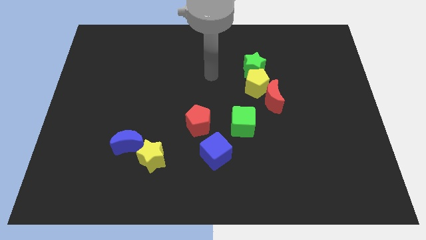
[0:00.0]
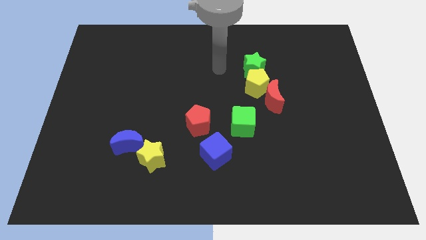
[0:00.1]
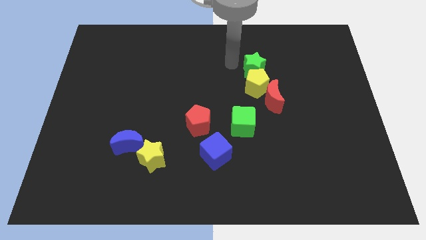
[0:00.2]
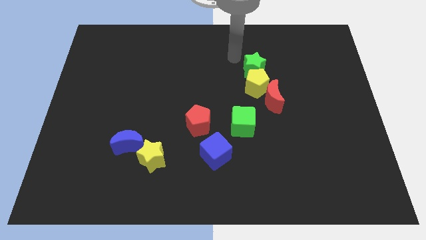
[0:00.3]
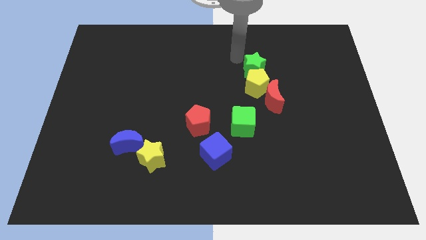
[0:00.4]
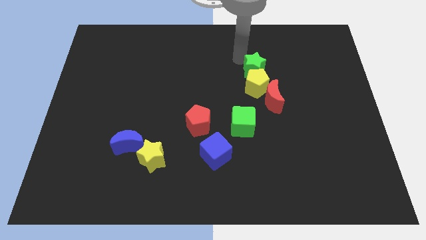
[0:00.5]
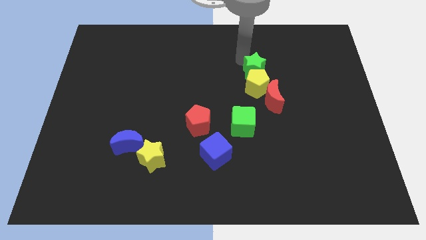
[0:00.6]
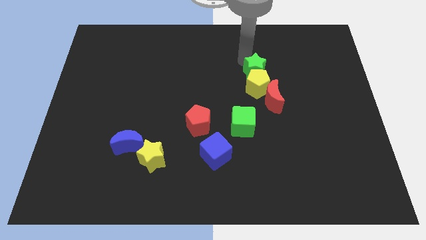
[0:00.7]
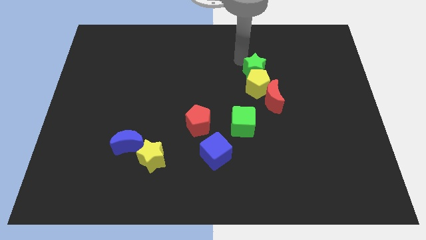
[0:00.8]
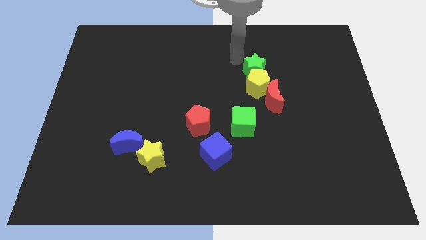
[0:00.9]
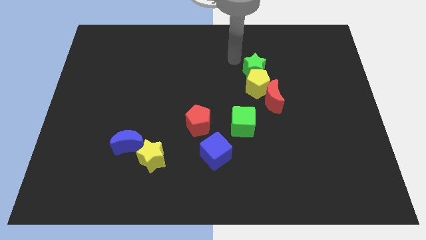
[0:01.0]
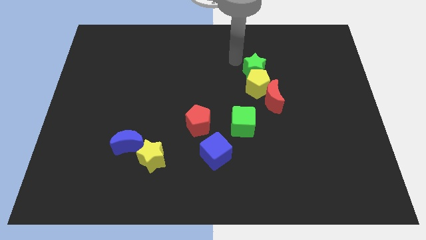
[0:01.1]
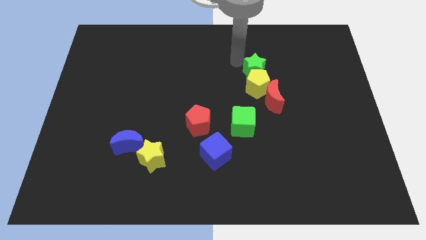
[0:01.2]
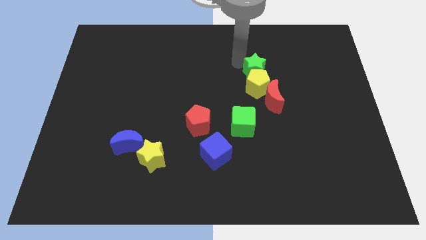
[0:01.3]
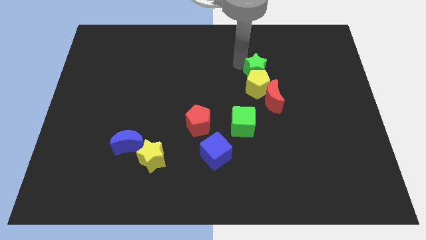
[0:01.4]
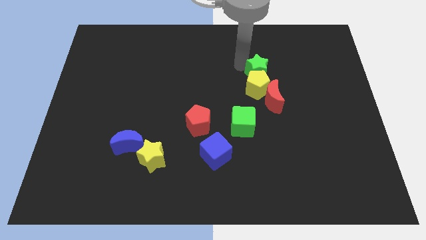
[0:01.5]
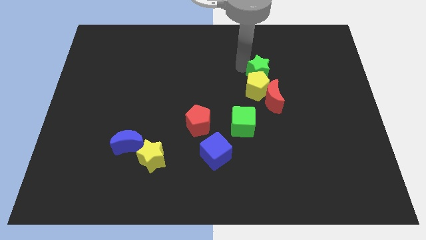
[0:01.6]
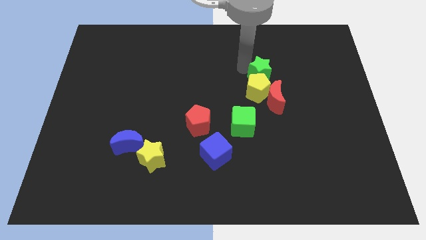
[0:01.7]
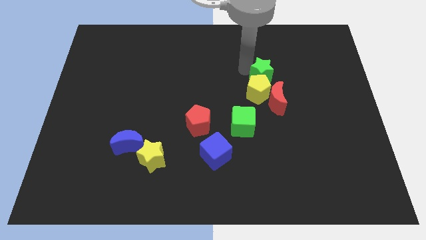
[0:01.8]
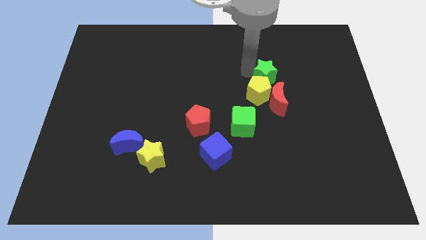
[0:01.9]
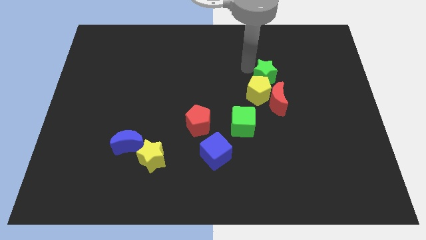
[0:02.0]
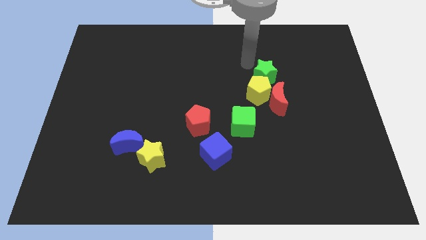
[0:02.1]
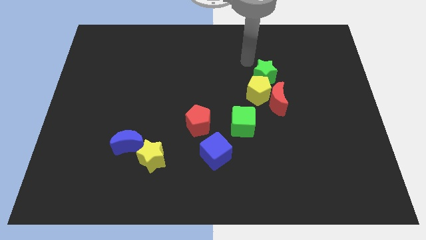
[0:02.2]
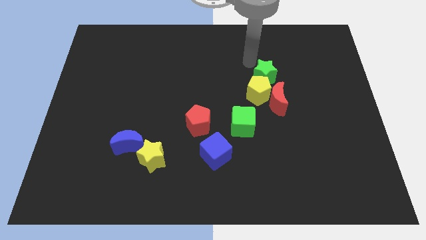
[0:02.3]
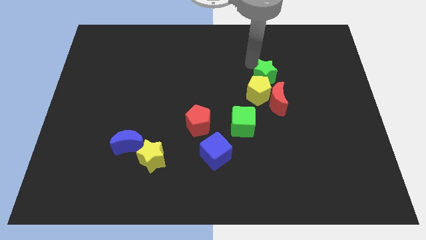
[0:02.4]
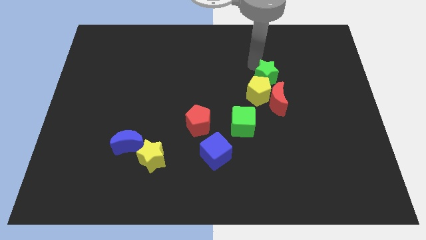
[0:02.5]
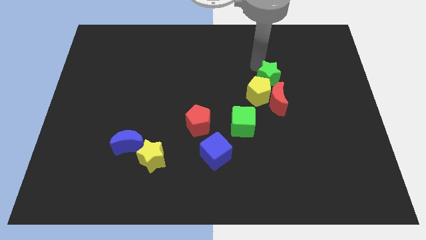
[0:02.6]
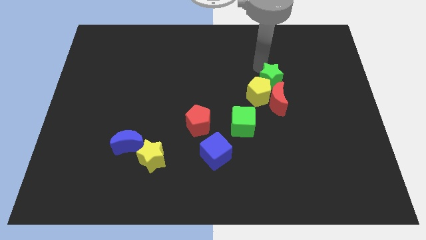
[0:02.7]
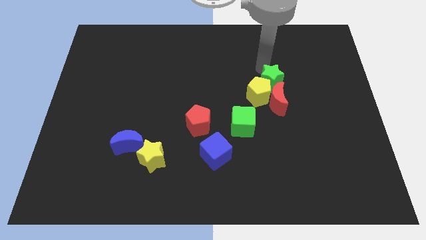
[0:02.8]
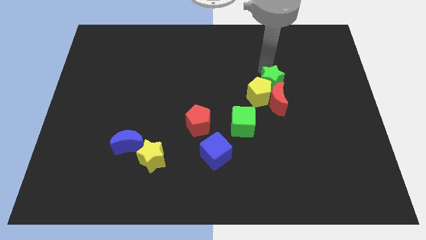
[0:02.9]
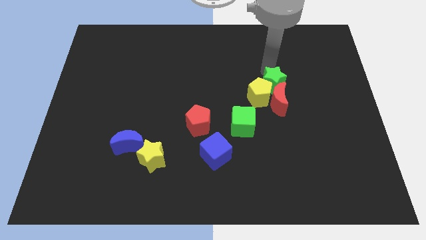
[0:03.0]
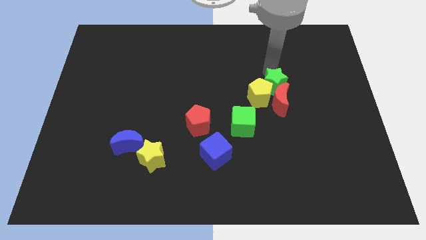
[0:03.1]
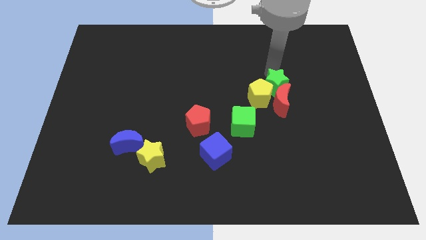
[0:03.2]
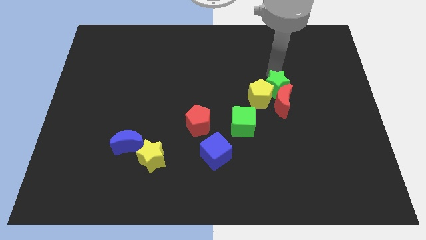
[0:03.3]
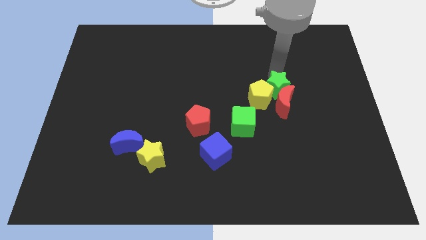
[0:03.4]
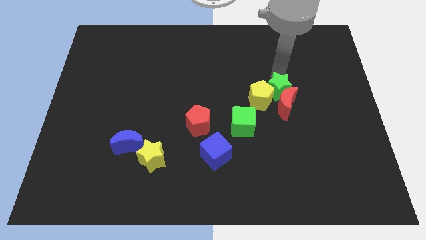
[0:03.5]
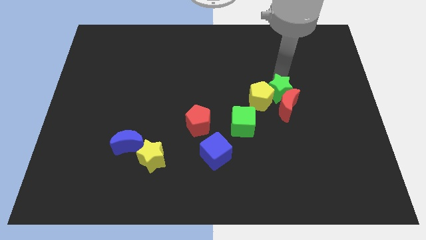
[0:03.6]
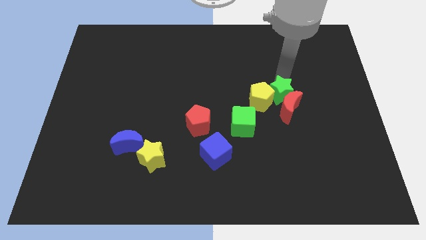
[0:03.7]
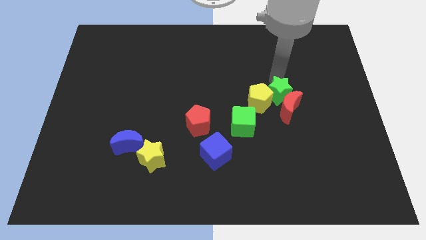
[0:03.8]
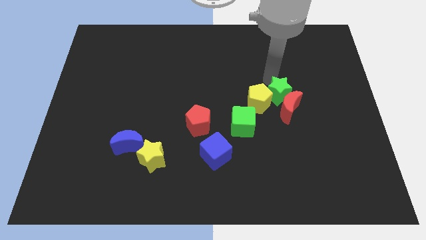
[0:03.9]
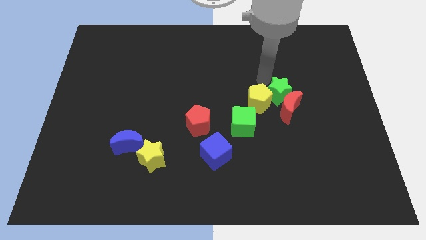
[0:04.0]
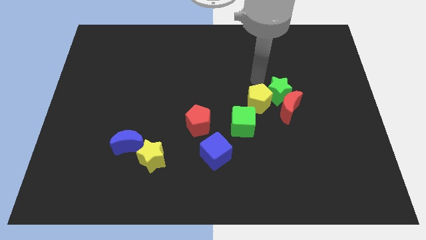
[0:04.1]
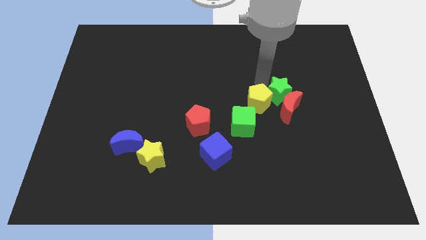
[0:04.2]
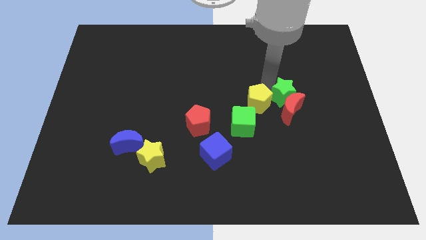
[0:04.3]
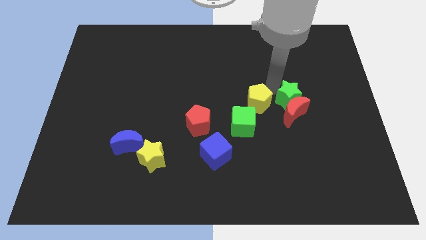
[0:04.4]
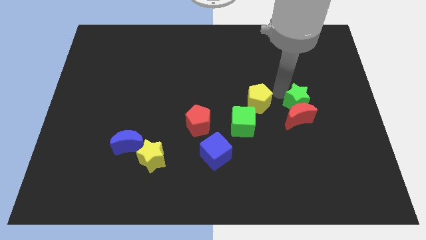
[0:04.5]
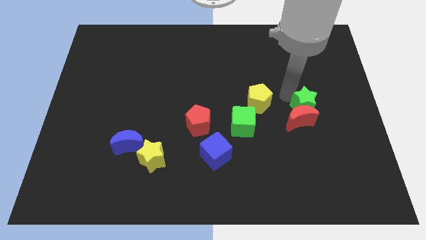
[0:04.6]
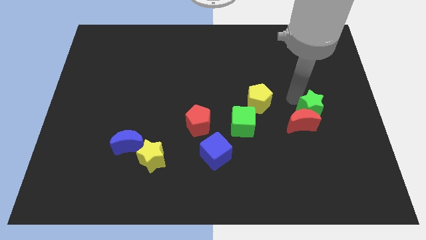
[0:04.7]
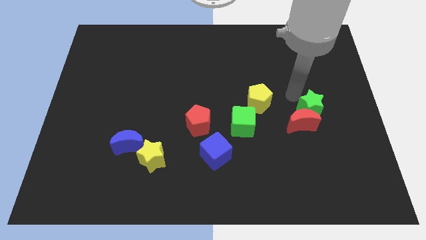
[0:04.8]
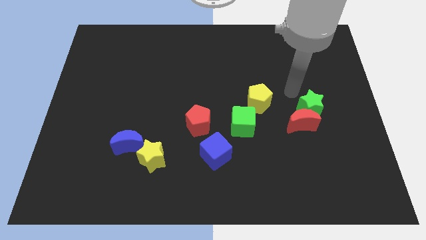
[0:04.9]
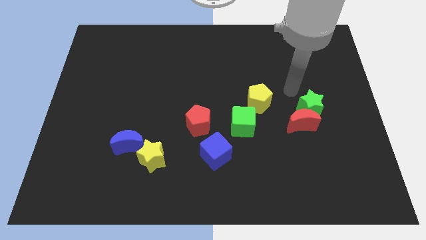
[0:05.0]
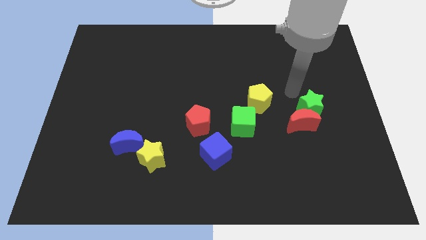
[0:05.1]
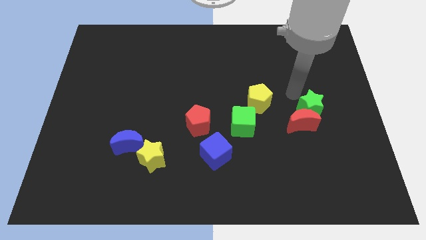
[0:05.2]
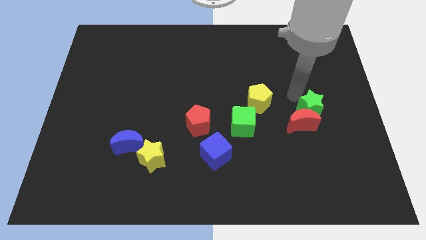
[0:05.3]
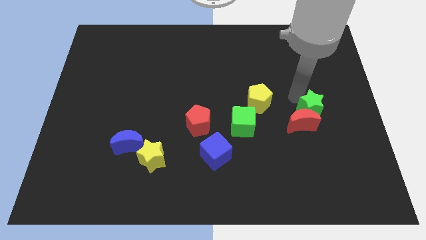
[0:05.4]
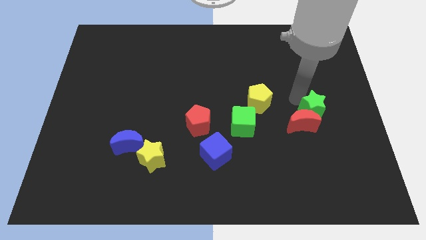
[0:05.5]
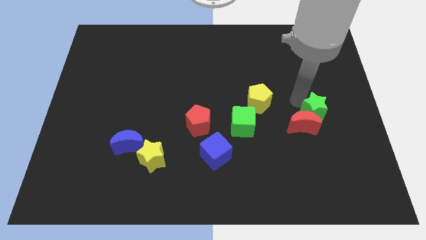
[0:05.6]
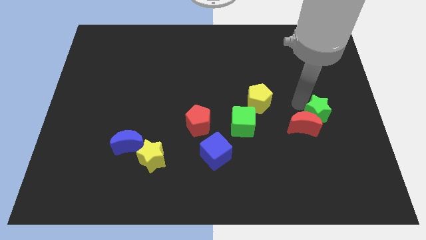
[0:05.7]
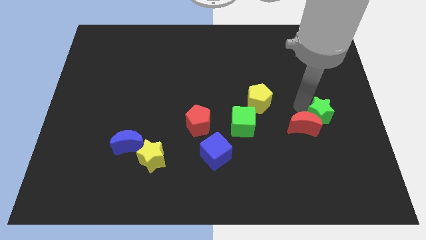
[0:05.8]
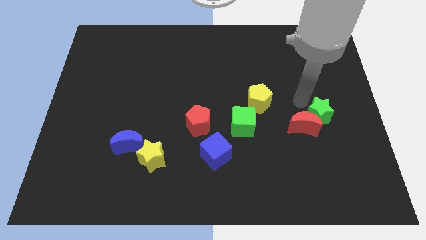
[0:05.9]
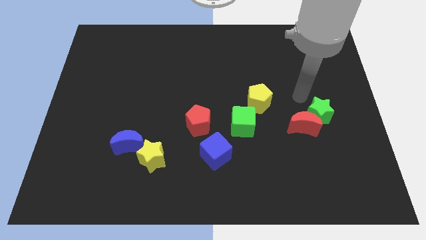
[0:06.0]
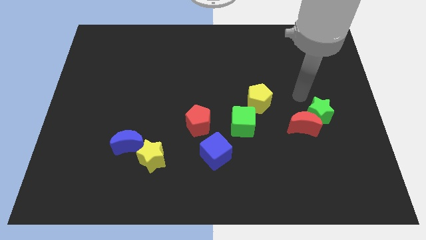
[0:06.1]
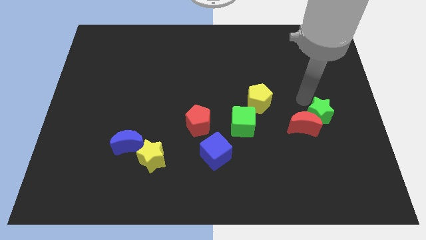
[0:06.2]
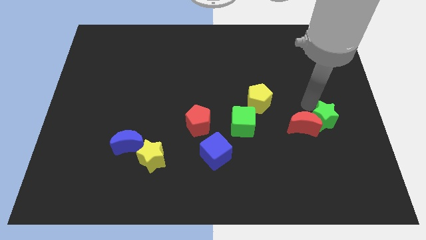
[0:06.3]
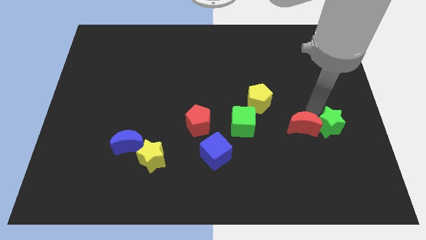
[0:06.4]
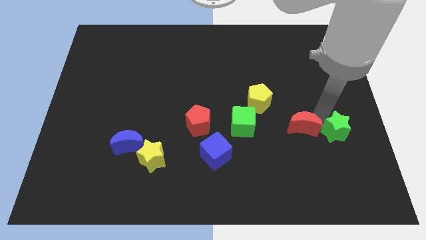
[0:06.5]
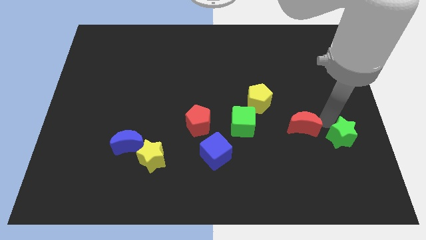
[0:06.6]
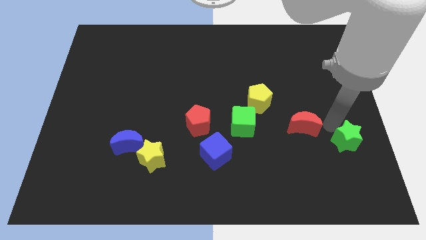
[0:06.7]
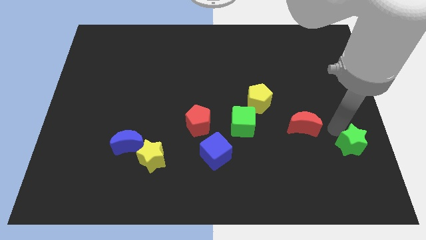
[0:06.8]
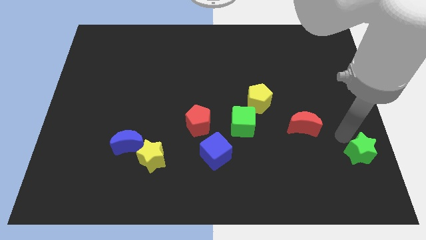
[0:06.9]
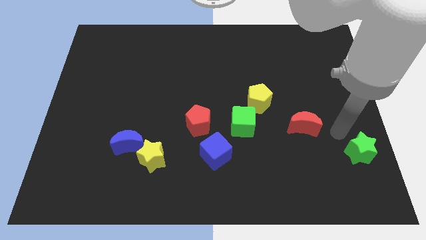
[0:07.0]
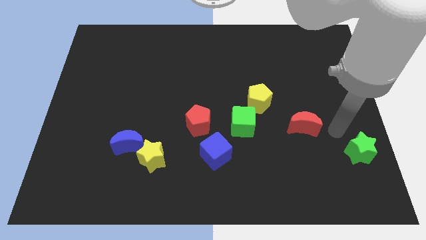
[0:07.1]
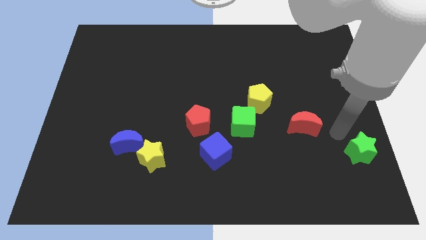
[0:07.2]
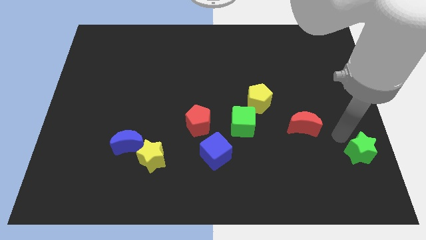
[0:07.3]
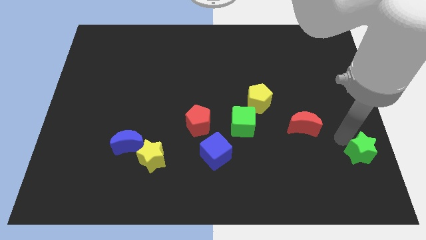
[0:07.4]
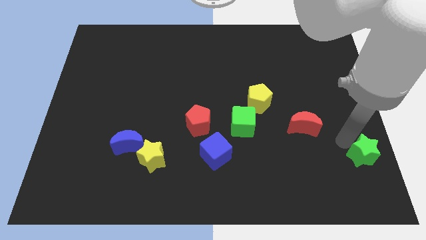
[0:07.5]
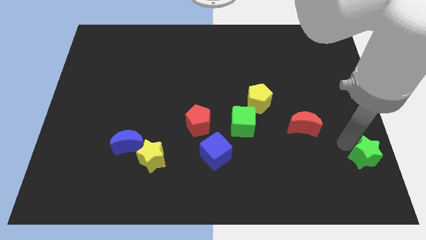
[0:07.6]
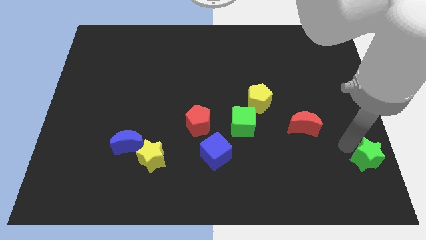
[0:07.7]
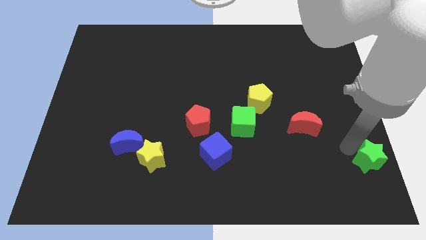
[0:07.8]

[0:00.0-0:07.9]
put the green star to the bottom right corner
